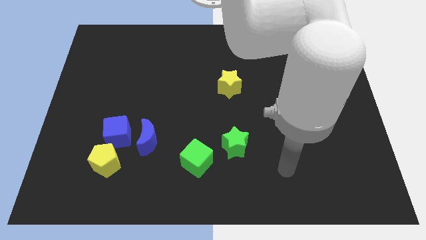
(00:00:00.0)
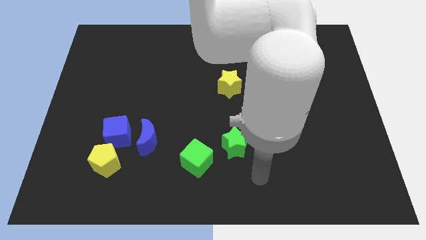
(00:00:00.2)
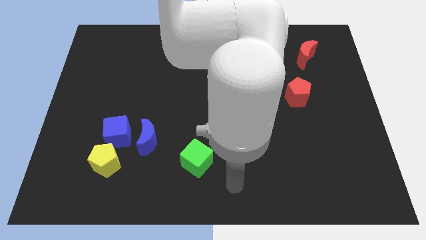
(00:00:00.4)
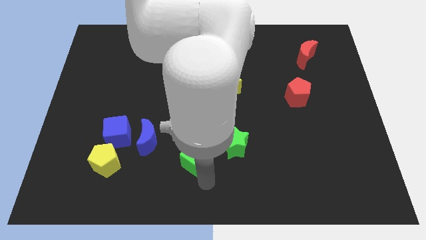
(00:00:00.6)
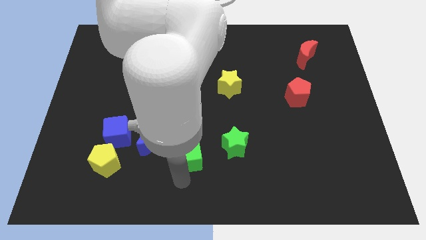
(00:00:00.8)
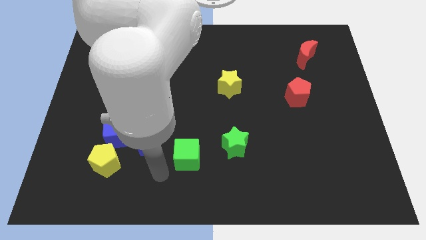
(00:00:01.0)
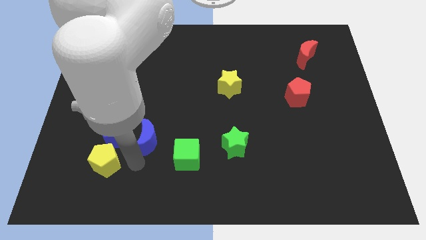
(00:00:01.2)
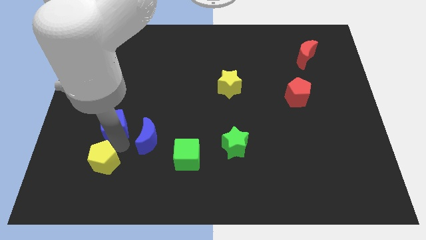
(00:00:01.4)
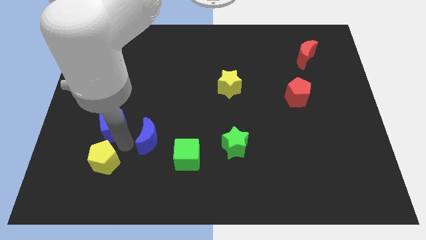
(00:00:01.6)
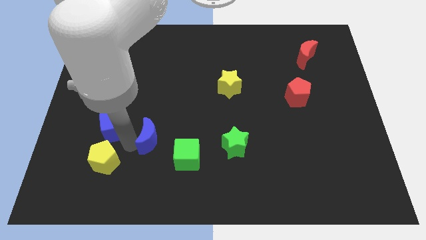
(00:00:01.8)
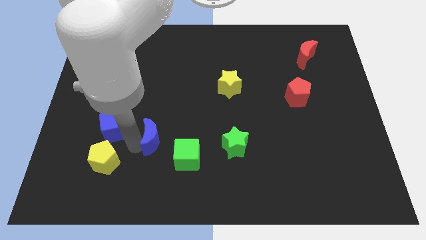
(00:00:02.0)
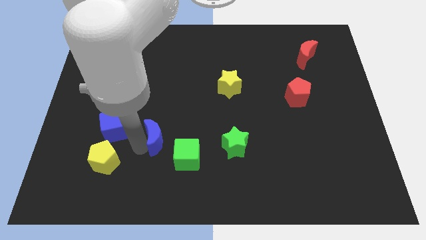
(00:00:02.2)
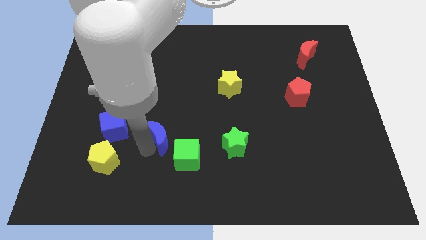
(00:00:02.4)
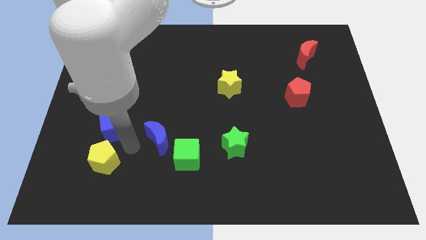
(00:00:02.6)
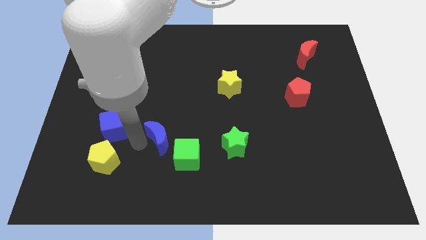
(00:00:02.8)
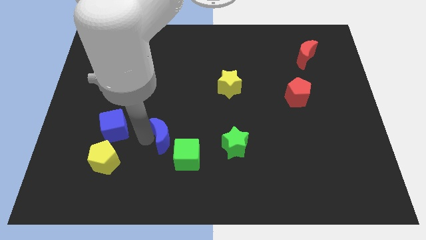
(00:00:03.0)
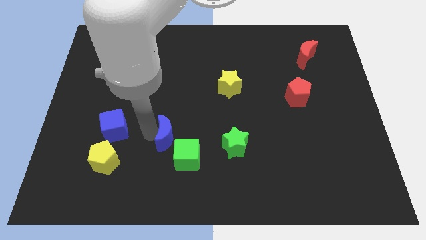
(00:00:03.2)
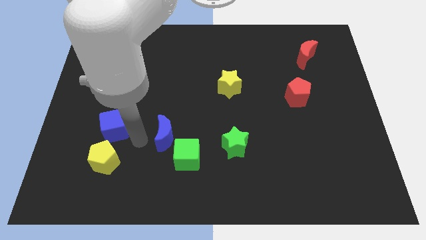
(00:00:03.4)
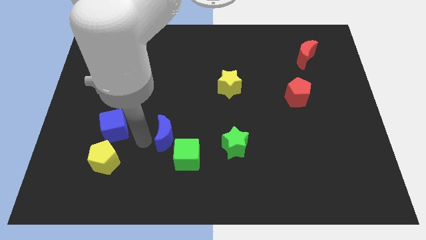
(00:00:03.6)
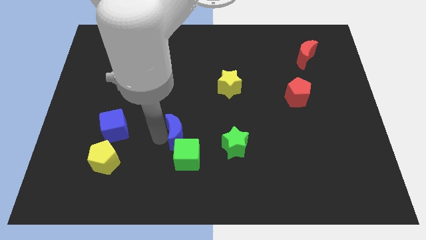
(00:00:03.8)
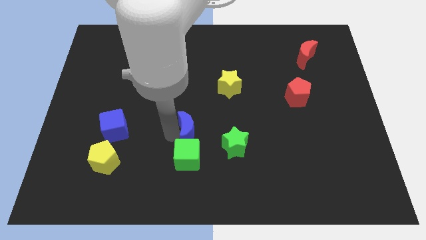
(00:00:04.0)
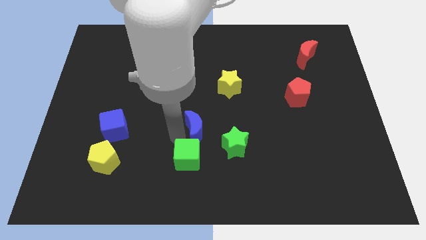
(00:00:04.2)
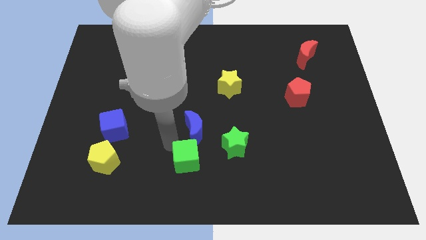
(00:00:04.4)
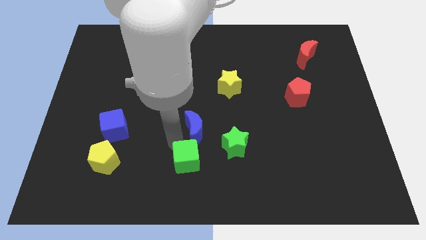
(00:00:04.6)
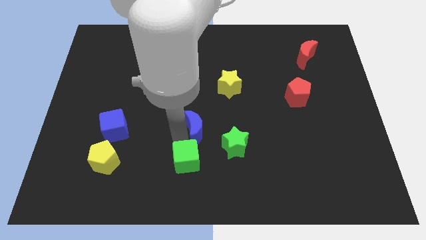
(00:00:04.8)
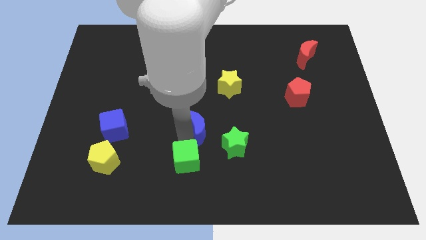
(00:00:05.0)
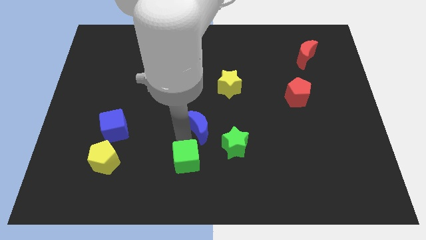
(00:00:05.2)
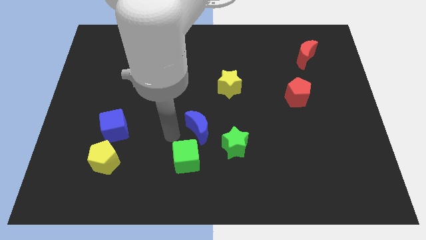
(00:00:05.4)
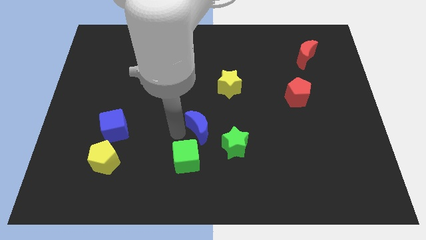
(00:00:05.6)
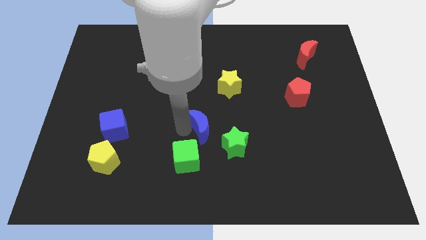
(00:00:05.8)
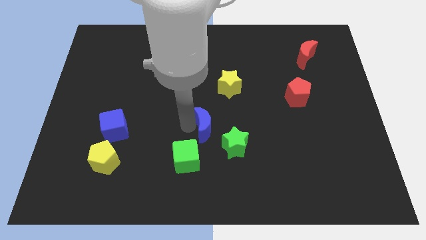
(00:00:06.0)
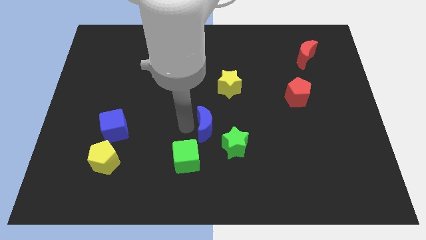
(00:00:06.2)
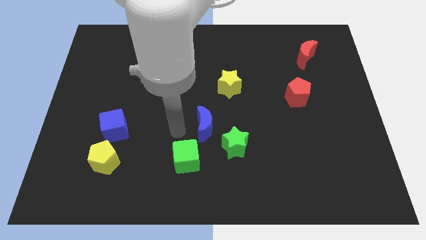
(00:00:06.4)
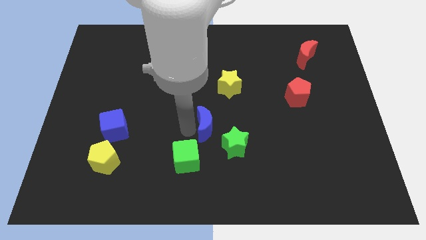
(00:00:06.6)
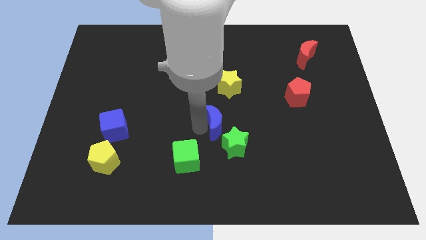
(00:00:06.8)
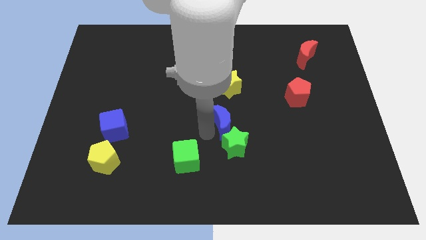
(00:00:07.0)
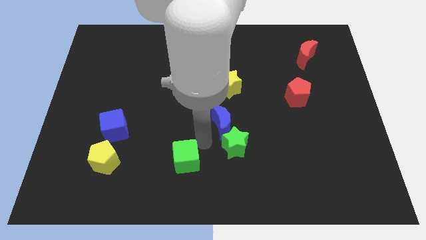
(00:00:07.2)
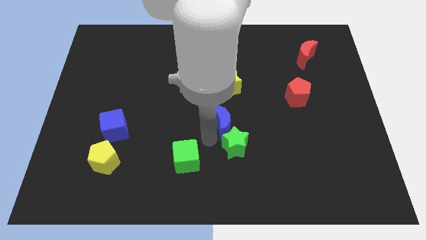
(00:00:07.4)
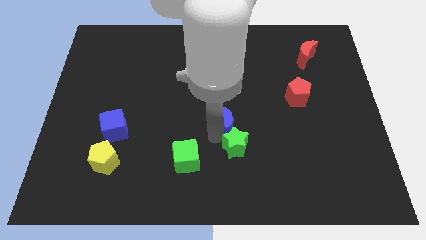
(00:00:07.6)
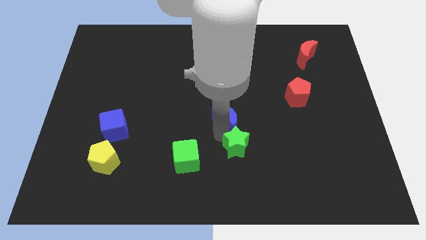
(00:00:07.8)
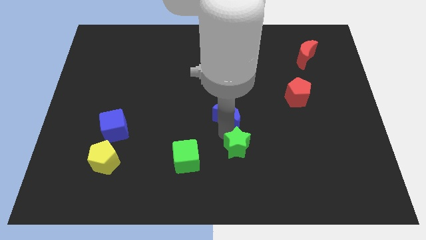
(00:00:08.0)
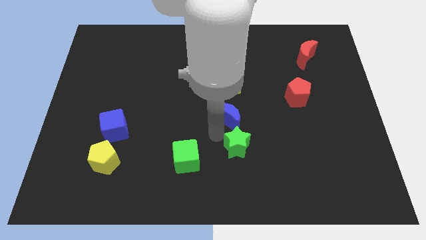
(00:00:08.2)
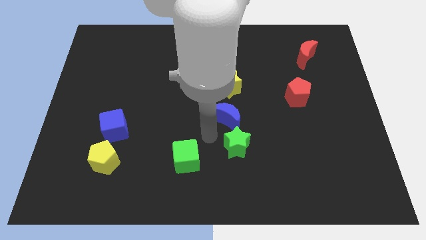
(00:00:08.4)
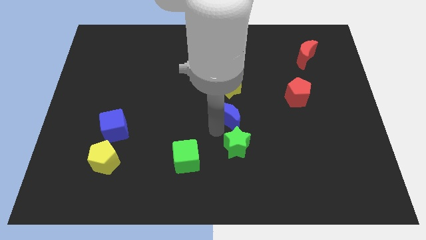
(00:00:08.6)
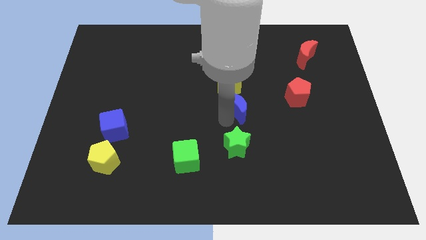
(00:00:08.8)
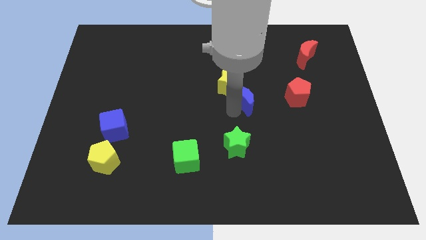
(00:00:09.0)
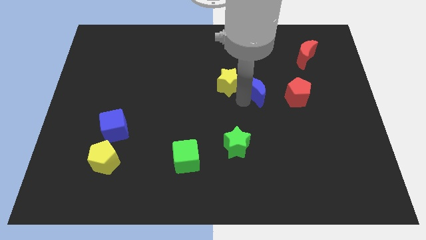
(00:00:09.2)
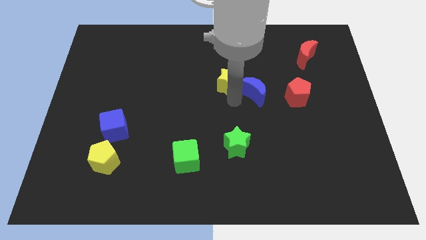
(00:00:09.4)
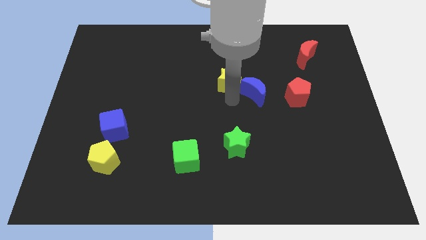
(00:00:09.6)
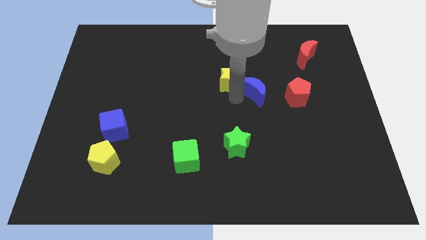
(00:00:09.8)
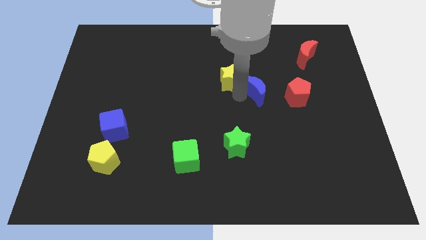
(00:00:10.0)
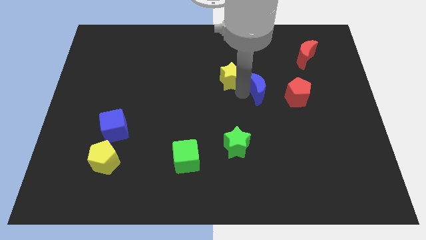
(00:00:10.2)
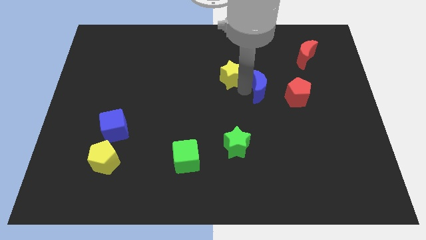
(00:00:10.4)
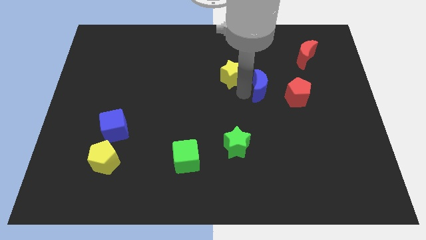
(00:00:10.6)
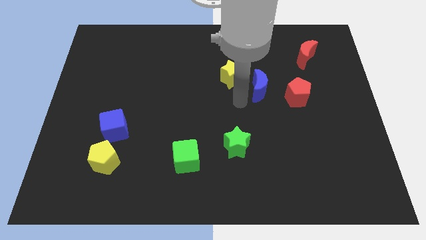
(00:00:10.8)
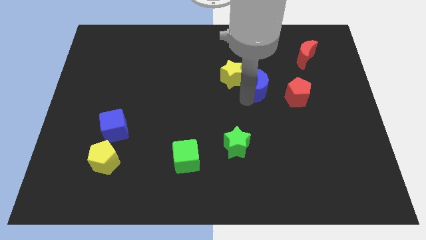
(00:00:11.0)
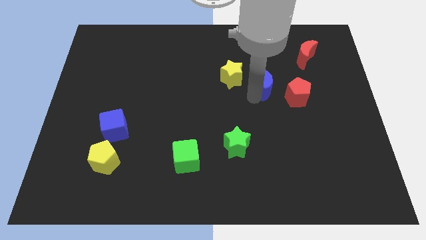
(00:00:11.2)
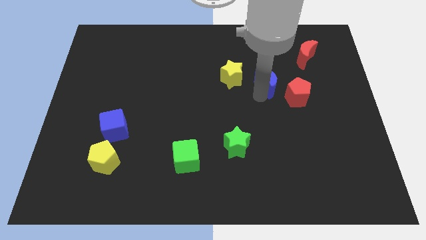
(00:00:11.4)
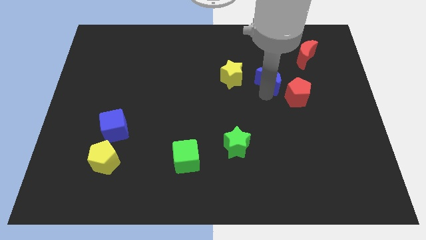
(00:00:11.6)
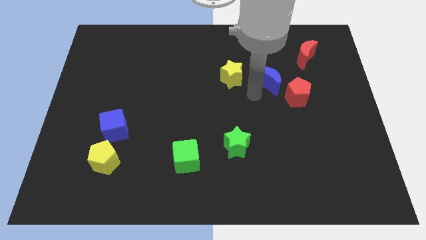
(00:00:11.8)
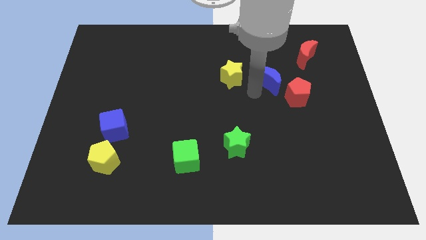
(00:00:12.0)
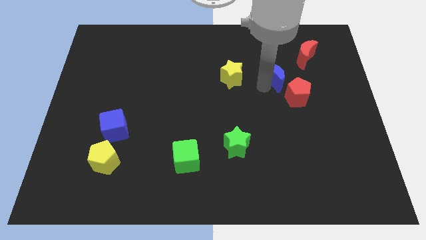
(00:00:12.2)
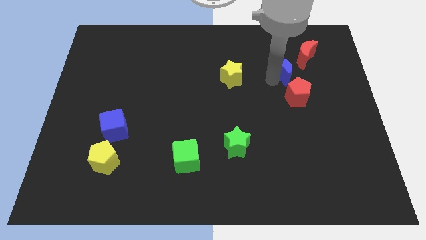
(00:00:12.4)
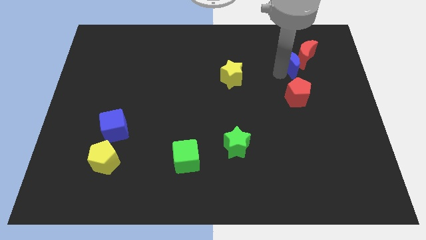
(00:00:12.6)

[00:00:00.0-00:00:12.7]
push the blue moon to the red moon

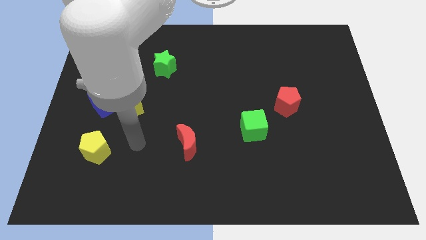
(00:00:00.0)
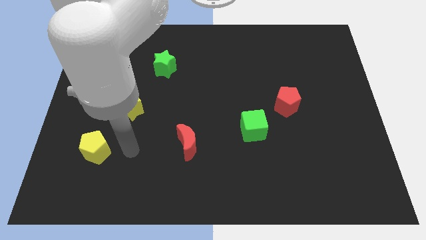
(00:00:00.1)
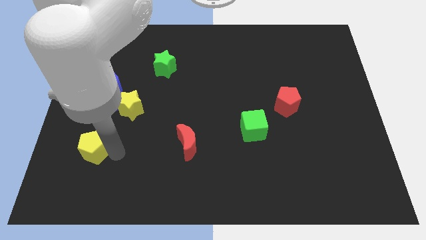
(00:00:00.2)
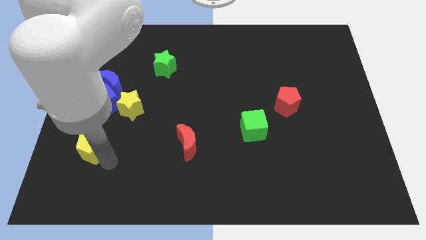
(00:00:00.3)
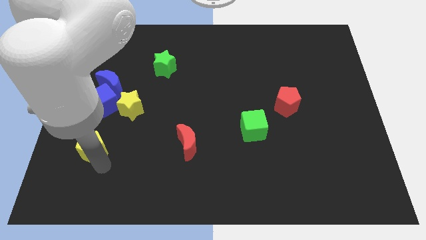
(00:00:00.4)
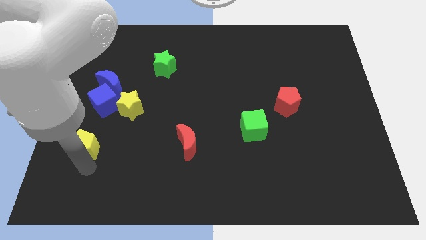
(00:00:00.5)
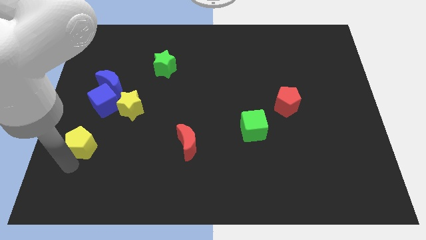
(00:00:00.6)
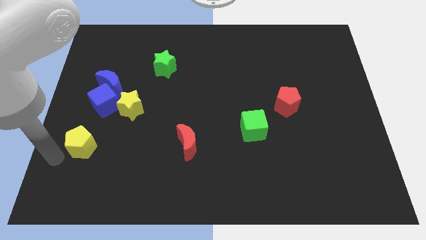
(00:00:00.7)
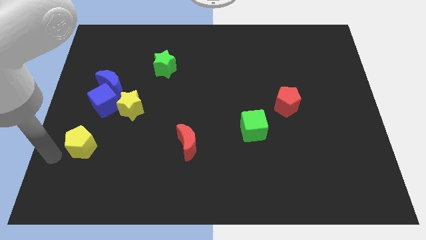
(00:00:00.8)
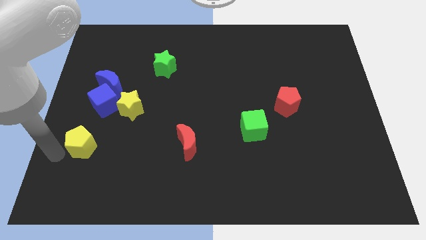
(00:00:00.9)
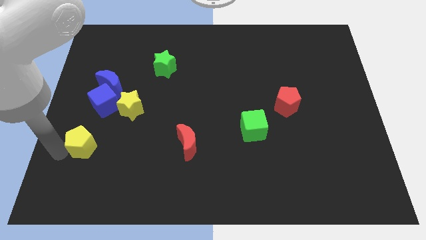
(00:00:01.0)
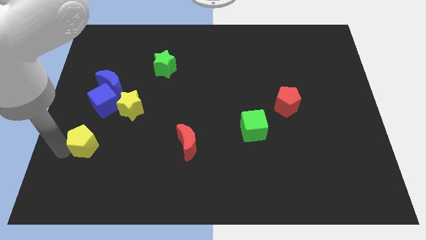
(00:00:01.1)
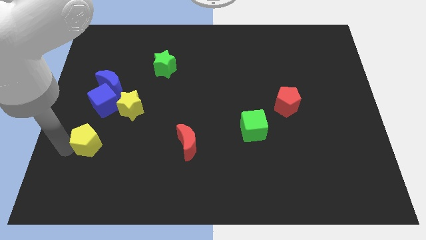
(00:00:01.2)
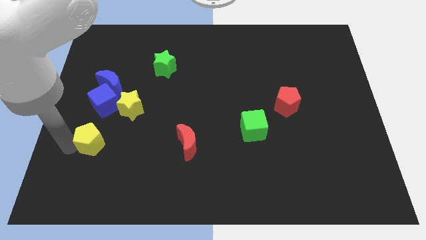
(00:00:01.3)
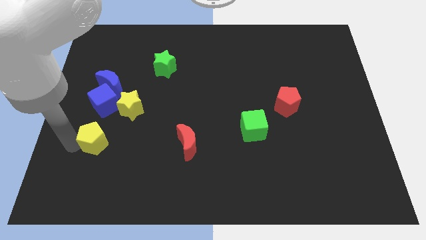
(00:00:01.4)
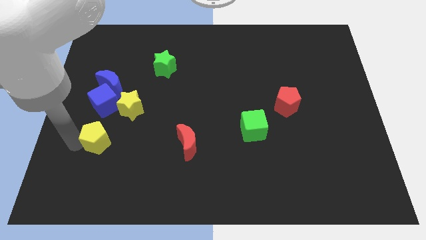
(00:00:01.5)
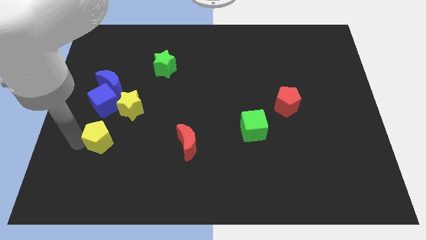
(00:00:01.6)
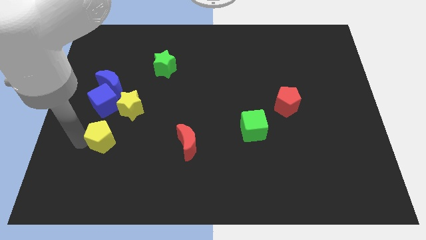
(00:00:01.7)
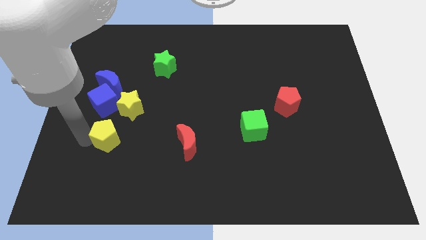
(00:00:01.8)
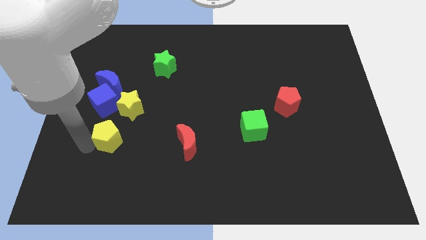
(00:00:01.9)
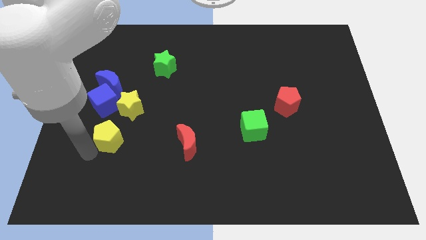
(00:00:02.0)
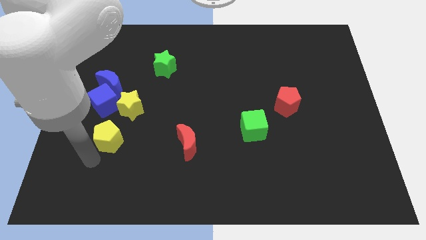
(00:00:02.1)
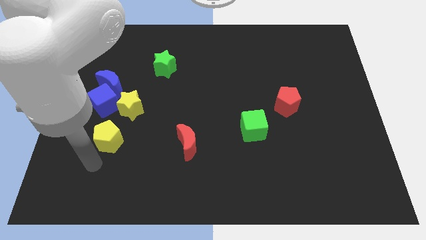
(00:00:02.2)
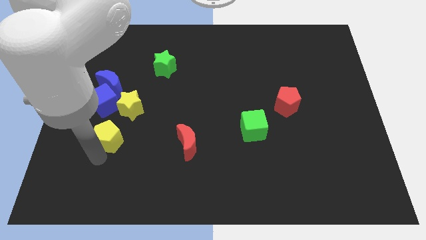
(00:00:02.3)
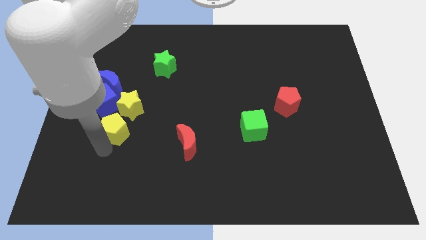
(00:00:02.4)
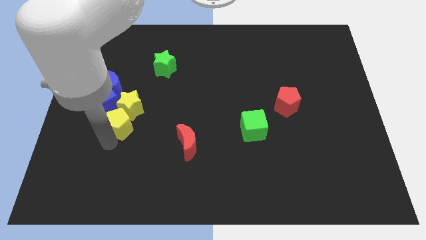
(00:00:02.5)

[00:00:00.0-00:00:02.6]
slide the yellow pentagon to the yellow star
